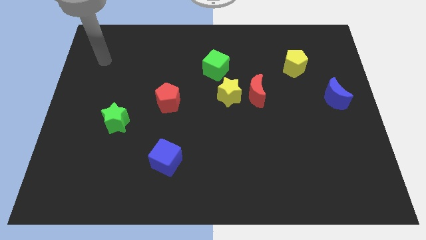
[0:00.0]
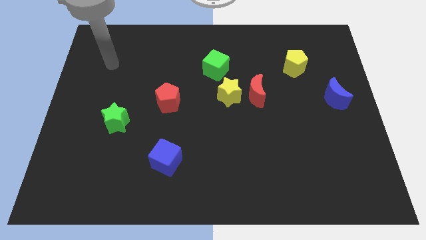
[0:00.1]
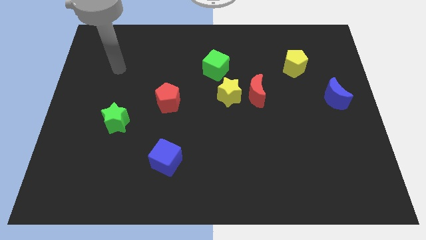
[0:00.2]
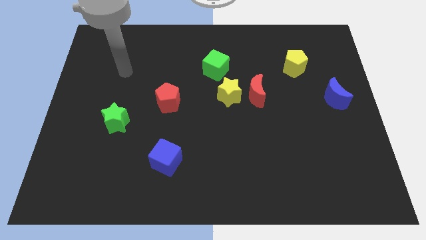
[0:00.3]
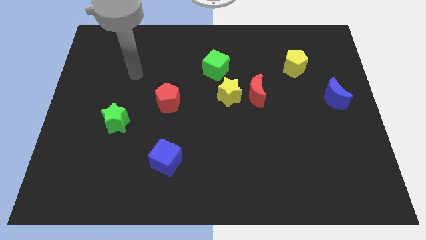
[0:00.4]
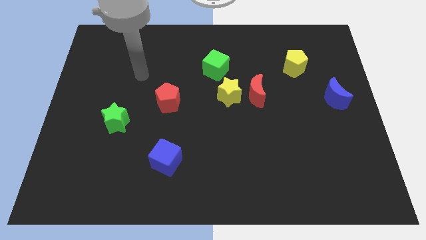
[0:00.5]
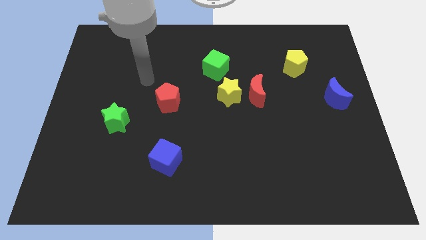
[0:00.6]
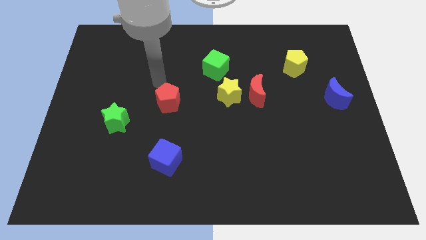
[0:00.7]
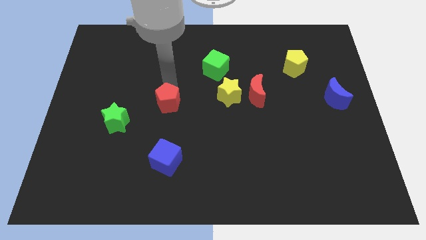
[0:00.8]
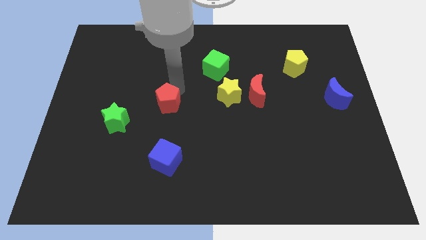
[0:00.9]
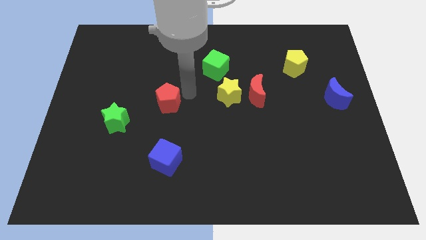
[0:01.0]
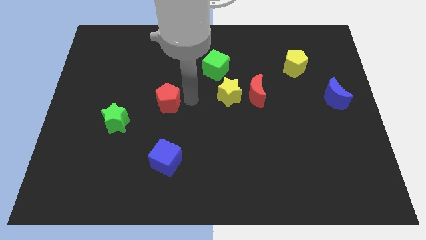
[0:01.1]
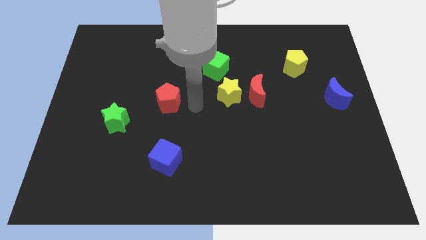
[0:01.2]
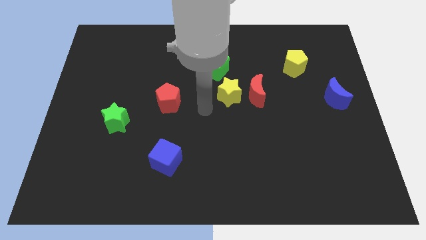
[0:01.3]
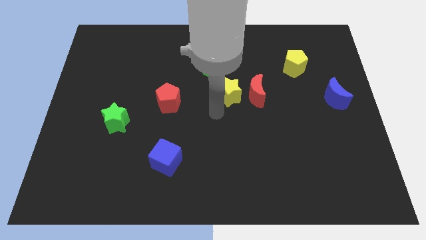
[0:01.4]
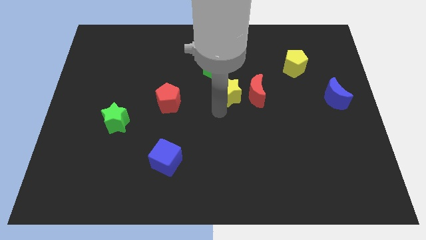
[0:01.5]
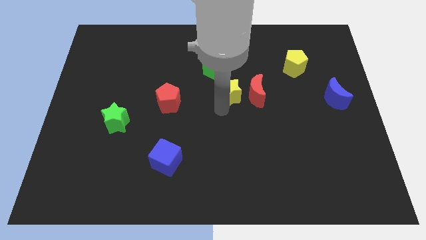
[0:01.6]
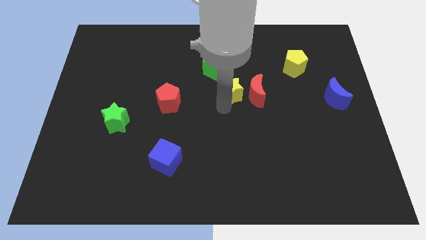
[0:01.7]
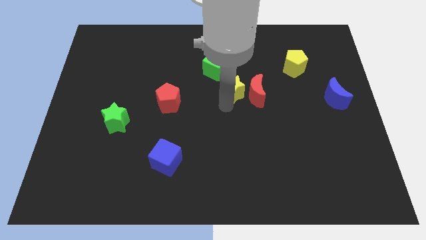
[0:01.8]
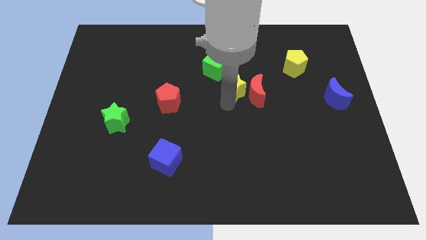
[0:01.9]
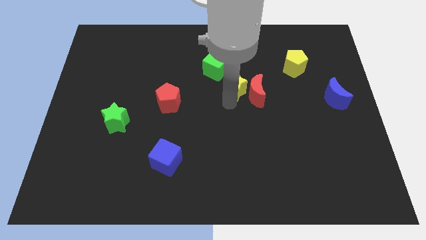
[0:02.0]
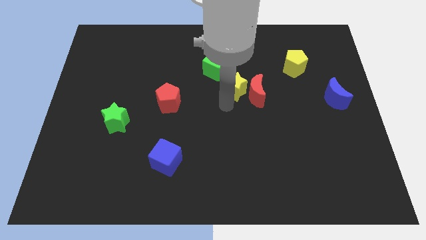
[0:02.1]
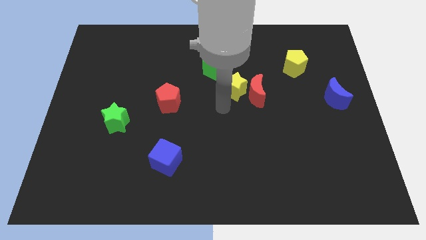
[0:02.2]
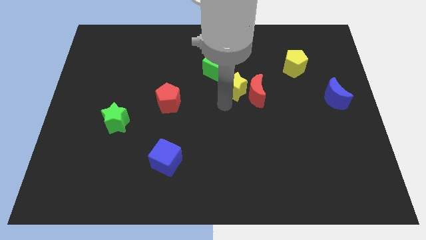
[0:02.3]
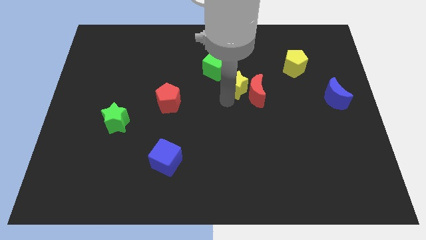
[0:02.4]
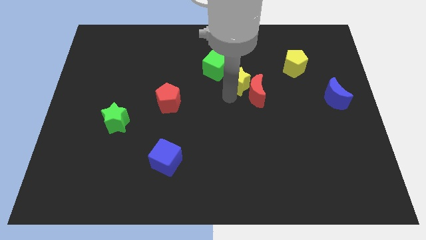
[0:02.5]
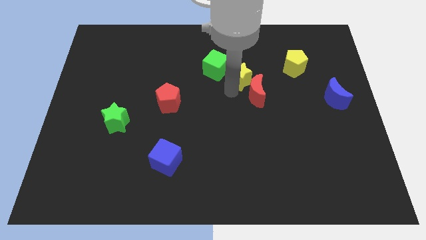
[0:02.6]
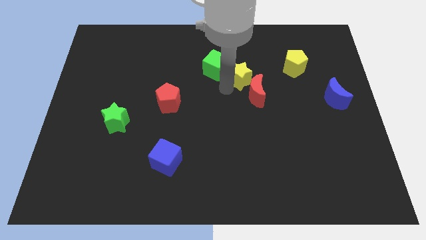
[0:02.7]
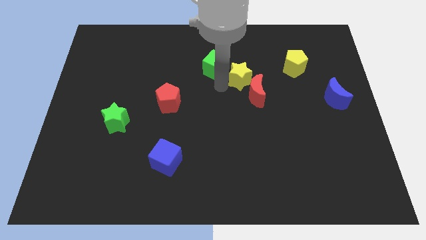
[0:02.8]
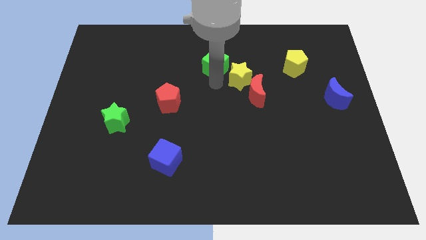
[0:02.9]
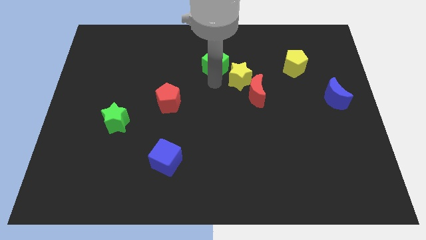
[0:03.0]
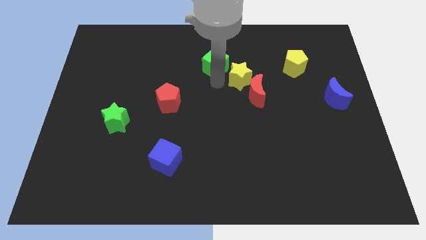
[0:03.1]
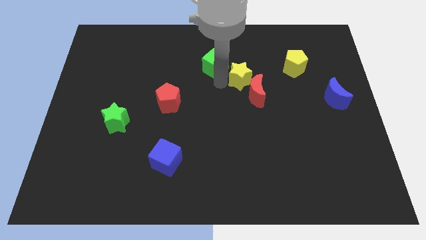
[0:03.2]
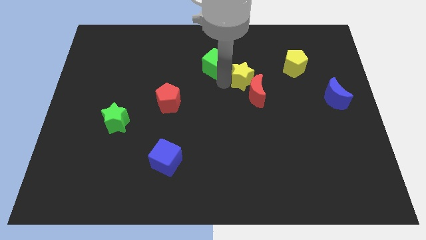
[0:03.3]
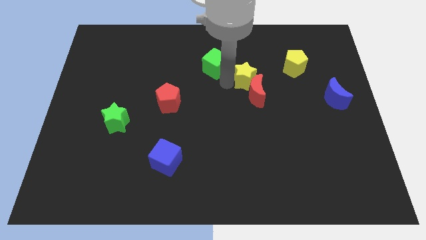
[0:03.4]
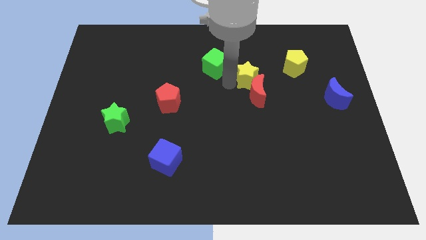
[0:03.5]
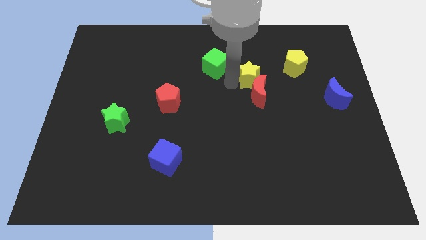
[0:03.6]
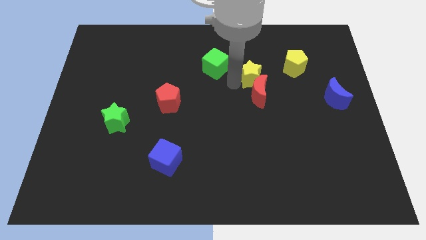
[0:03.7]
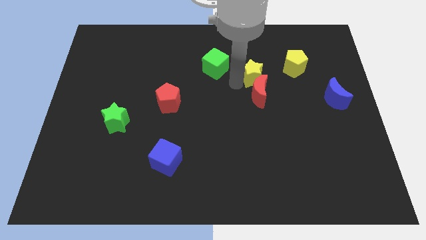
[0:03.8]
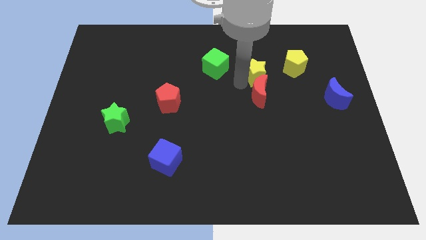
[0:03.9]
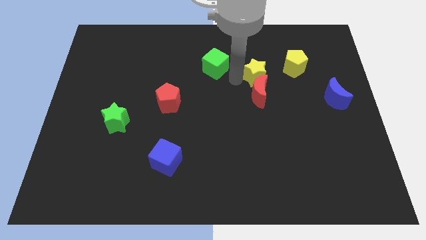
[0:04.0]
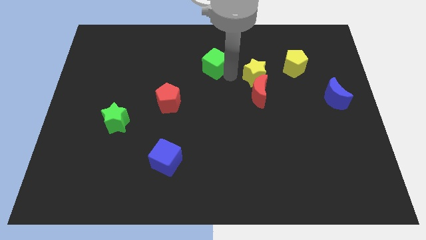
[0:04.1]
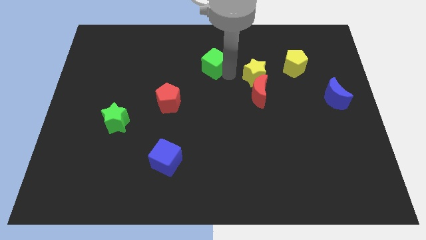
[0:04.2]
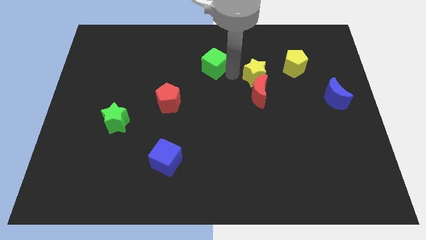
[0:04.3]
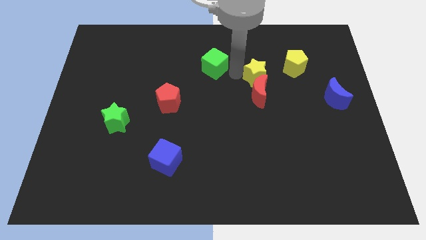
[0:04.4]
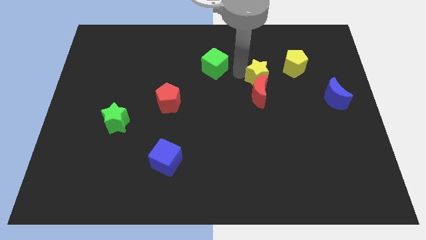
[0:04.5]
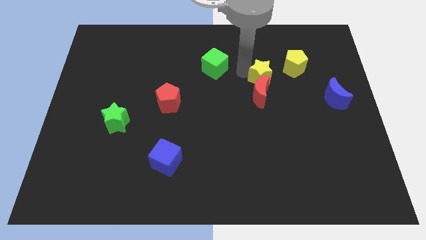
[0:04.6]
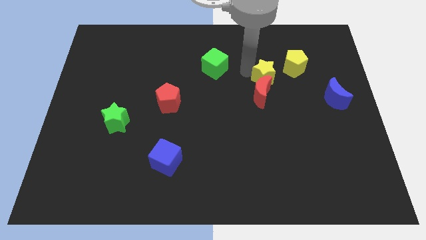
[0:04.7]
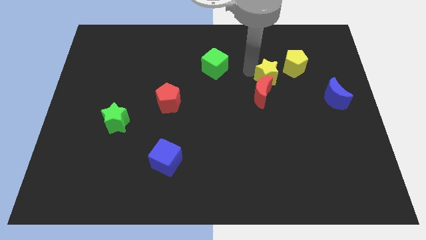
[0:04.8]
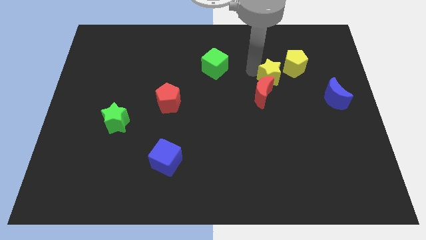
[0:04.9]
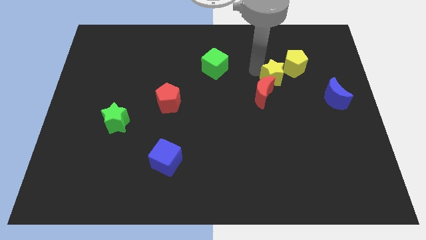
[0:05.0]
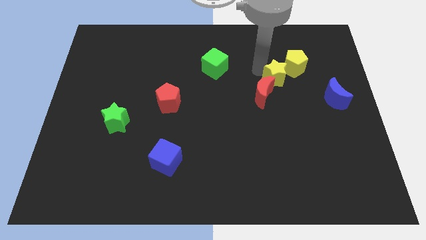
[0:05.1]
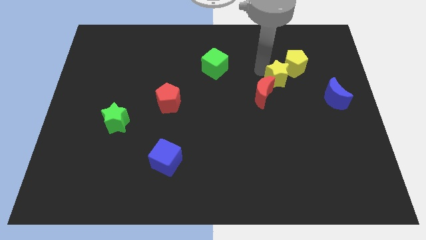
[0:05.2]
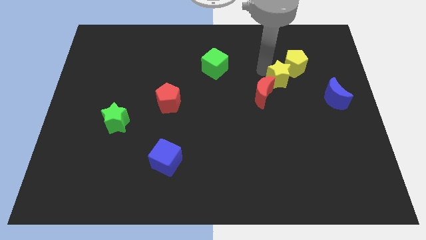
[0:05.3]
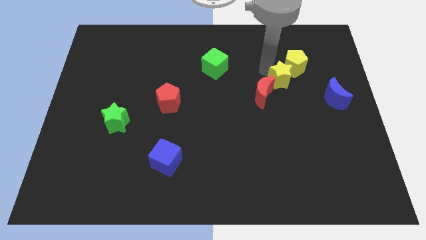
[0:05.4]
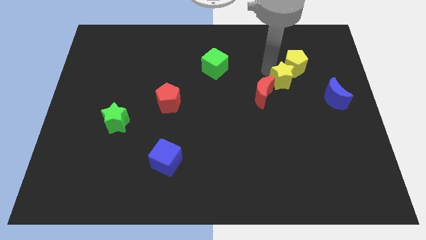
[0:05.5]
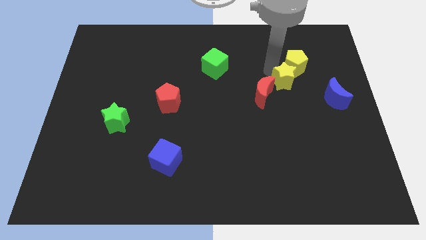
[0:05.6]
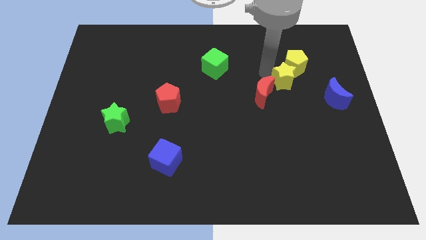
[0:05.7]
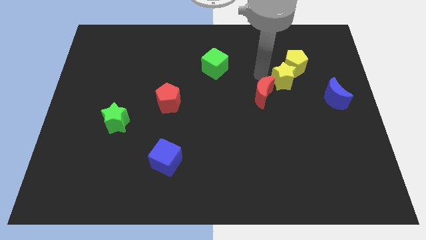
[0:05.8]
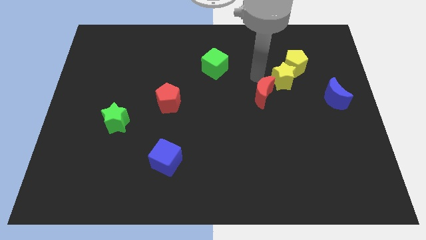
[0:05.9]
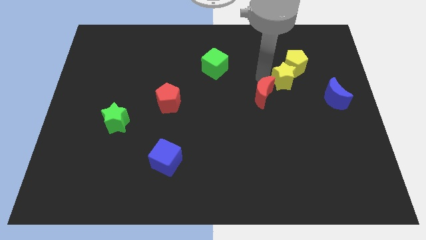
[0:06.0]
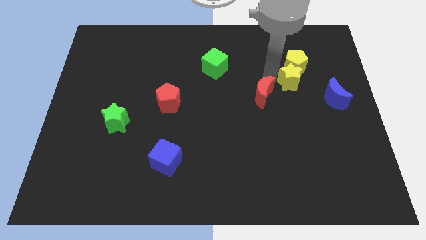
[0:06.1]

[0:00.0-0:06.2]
slide the yellow star to the top left side of the blue moon
